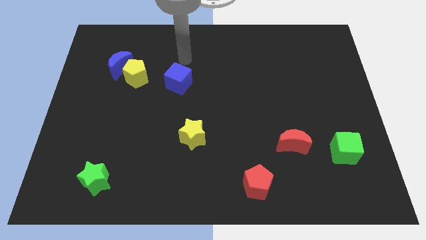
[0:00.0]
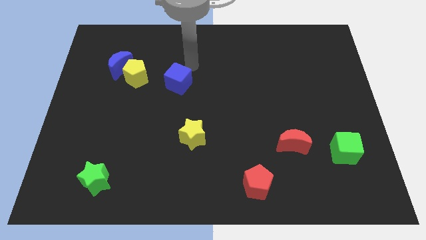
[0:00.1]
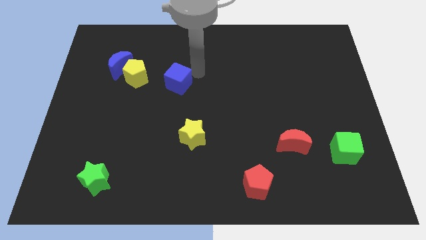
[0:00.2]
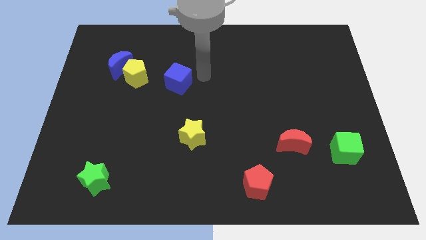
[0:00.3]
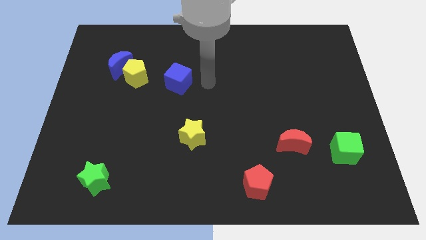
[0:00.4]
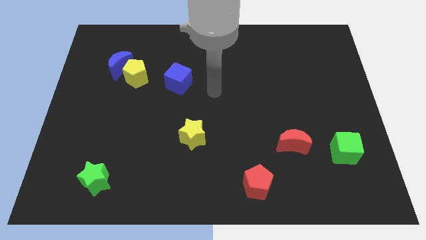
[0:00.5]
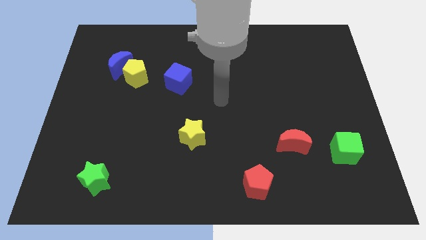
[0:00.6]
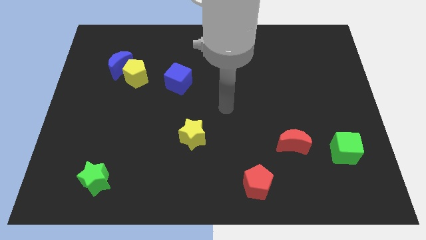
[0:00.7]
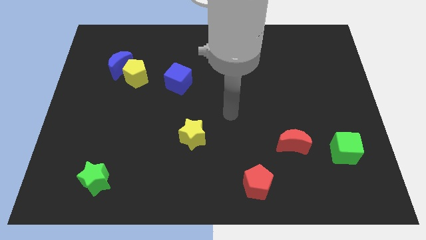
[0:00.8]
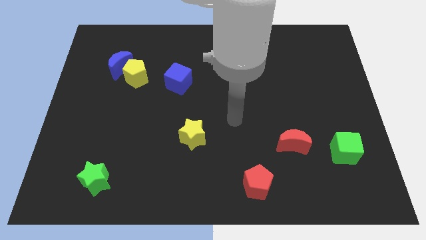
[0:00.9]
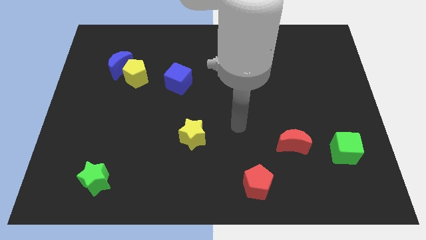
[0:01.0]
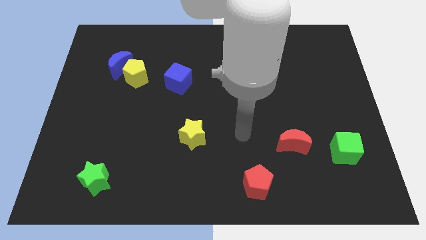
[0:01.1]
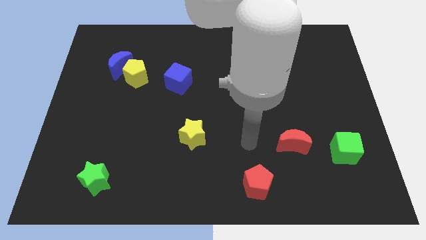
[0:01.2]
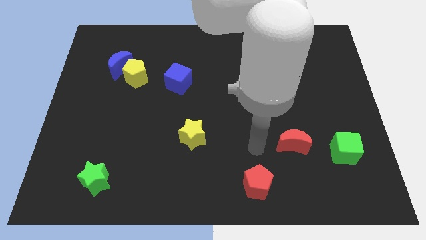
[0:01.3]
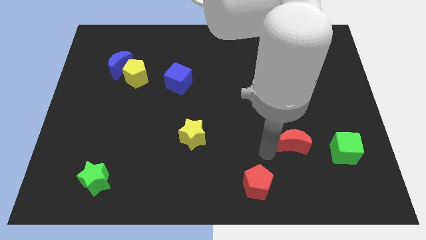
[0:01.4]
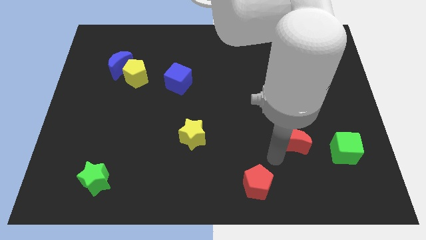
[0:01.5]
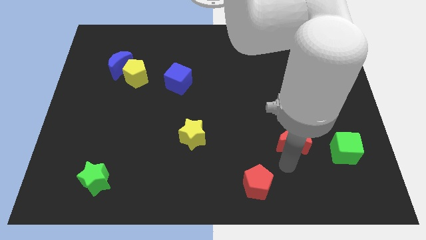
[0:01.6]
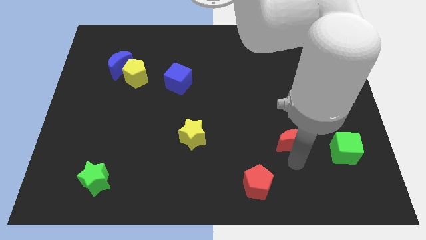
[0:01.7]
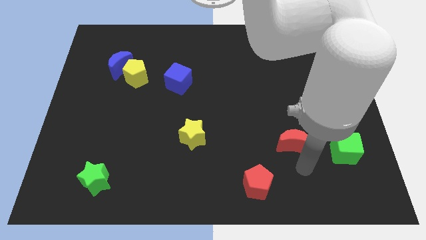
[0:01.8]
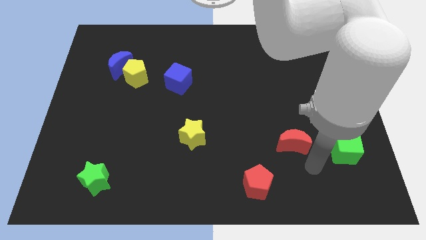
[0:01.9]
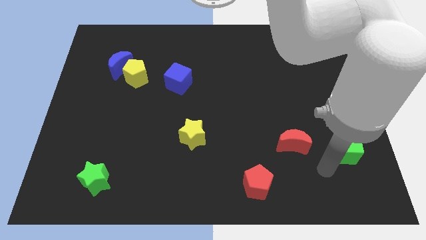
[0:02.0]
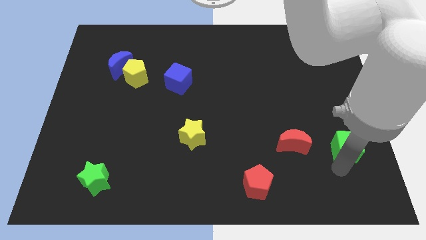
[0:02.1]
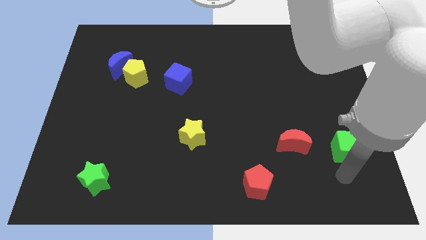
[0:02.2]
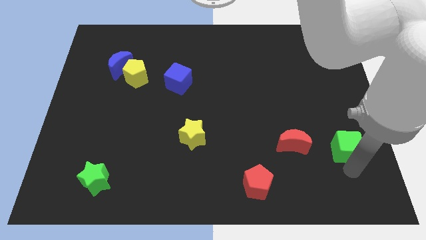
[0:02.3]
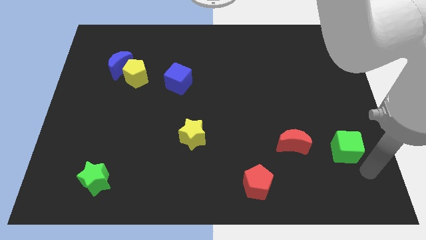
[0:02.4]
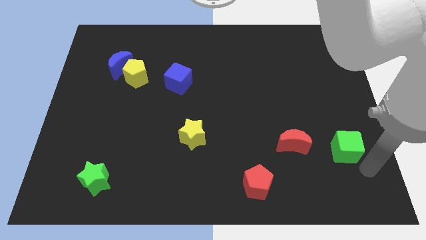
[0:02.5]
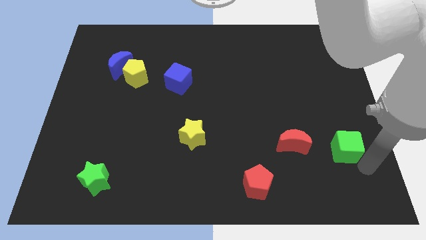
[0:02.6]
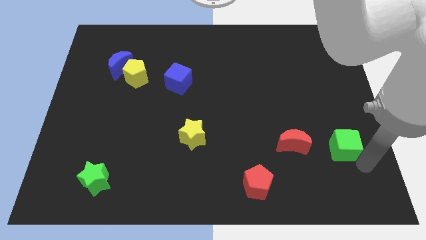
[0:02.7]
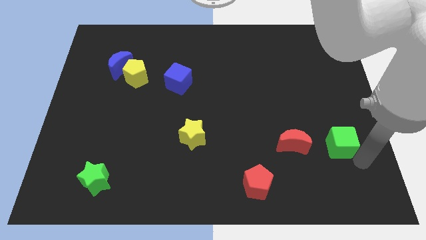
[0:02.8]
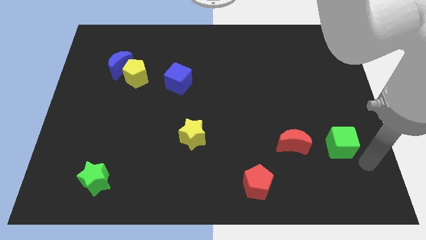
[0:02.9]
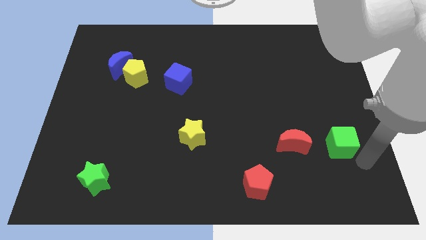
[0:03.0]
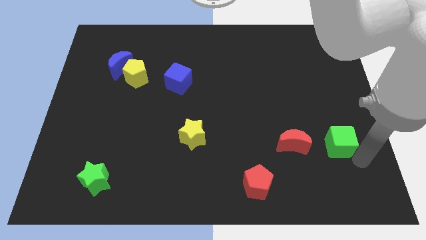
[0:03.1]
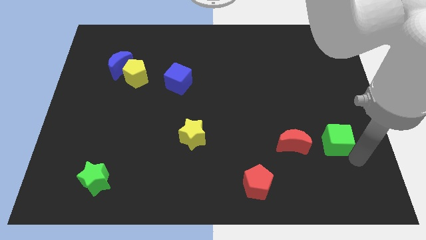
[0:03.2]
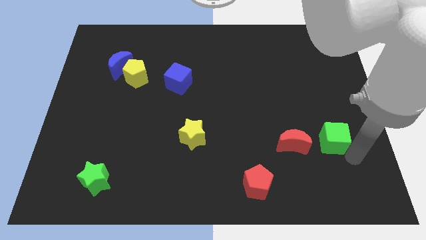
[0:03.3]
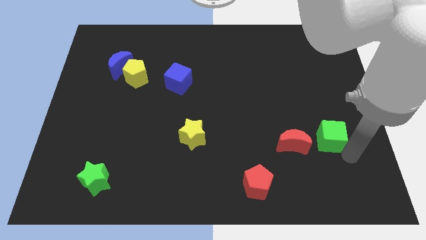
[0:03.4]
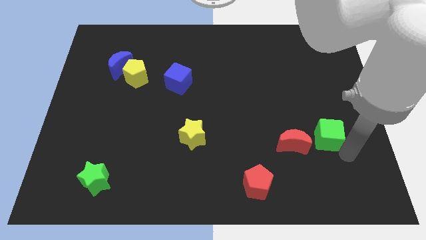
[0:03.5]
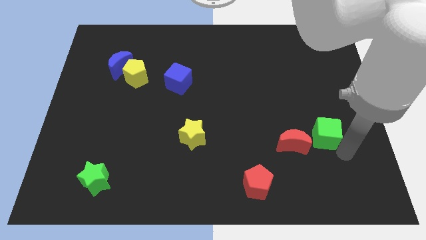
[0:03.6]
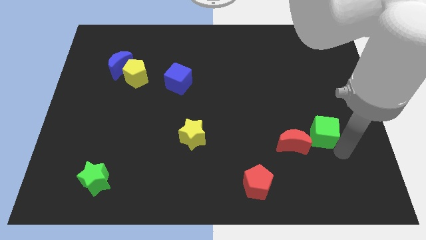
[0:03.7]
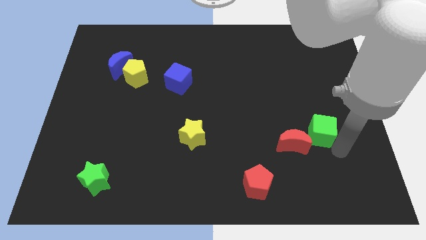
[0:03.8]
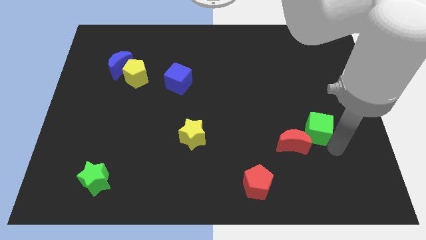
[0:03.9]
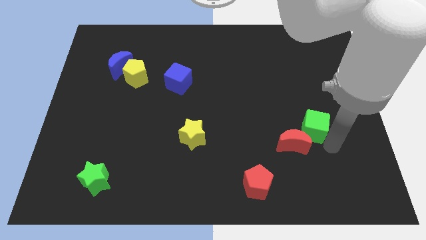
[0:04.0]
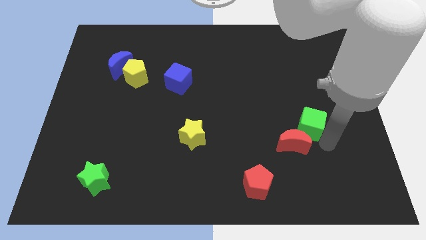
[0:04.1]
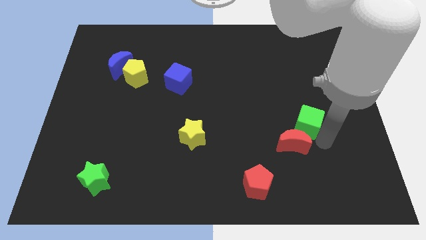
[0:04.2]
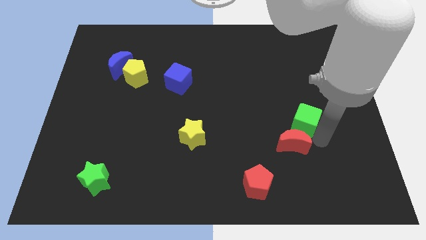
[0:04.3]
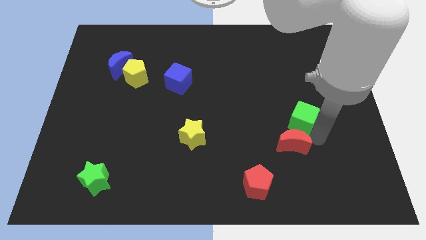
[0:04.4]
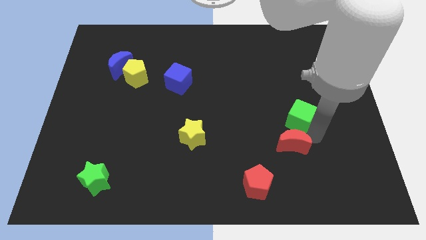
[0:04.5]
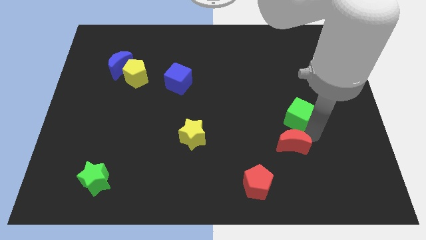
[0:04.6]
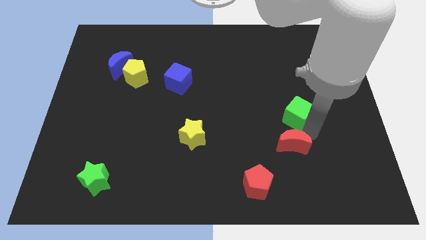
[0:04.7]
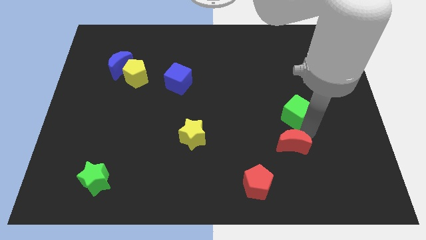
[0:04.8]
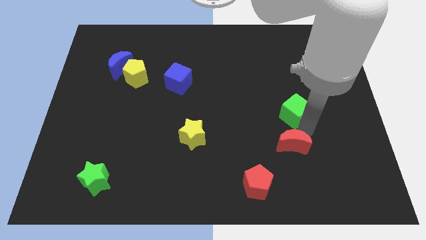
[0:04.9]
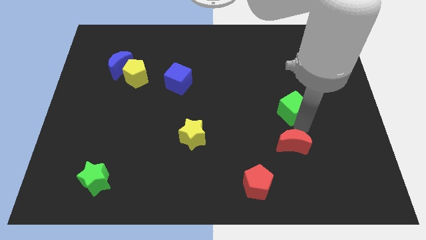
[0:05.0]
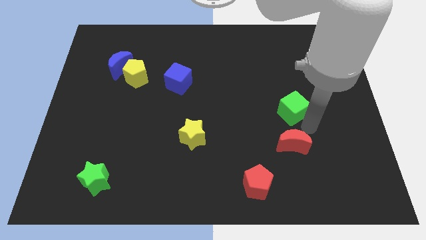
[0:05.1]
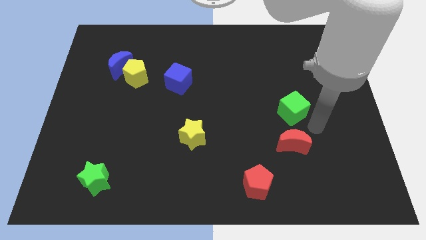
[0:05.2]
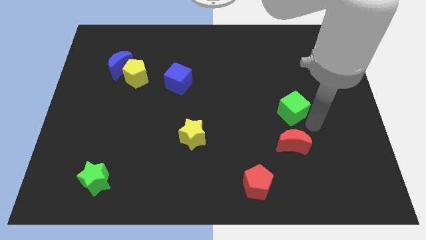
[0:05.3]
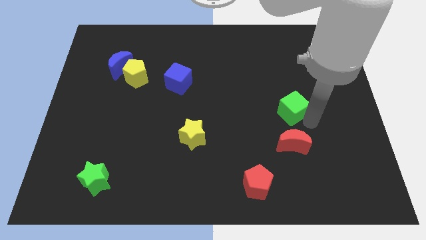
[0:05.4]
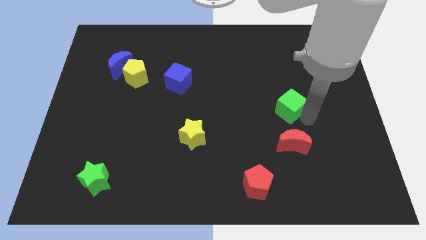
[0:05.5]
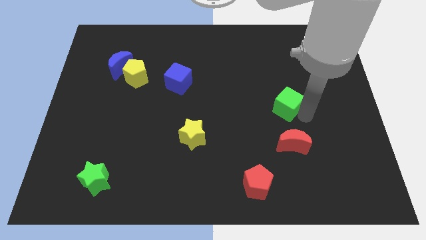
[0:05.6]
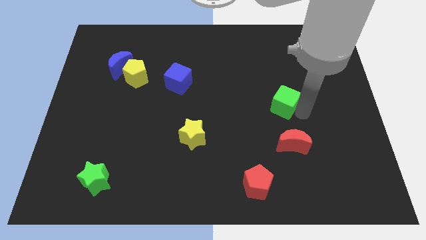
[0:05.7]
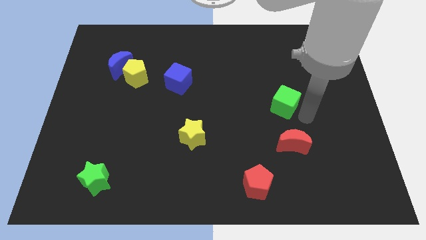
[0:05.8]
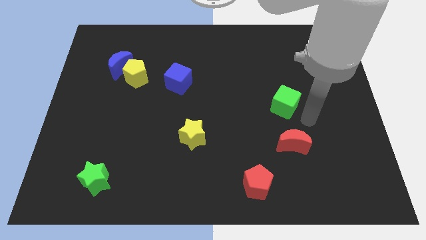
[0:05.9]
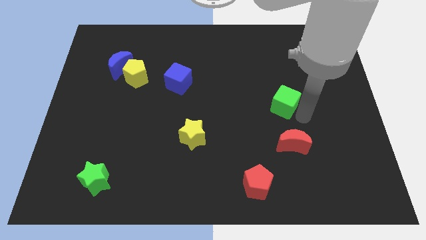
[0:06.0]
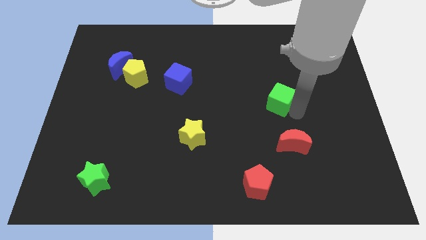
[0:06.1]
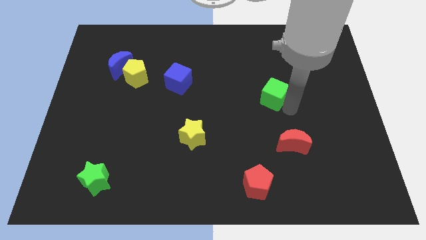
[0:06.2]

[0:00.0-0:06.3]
slide the green cube up and then left

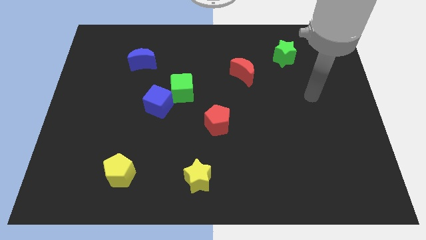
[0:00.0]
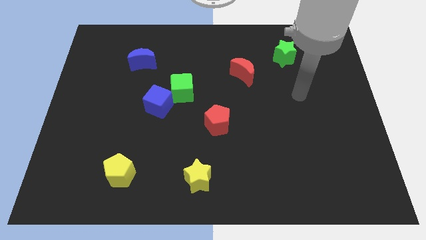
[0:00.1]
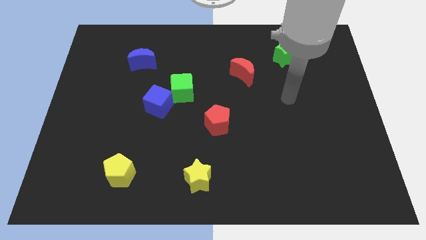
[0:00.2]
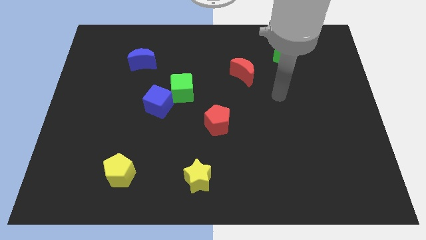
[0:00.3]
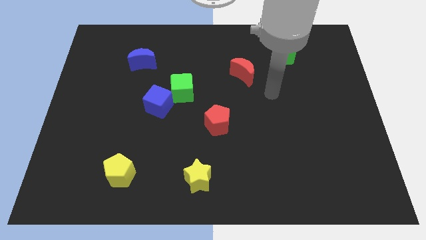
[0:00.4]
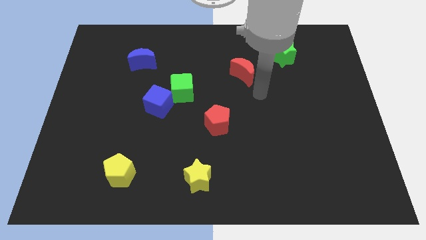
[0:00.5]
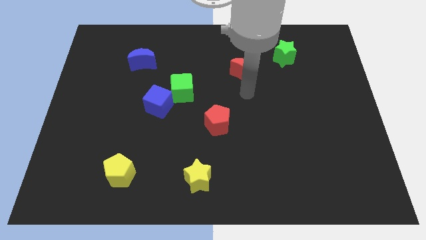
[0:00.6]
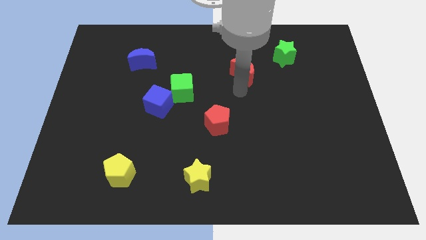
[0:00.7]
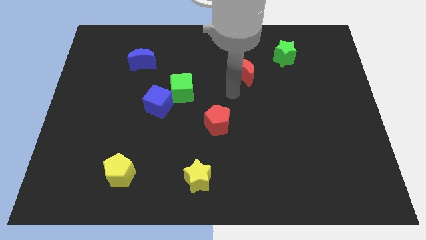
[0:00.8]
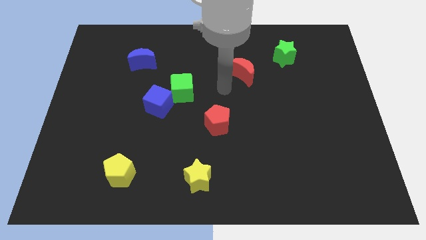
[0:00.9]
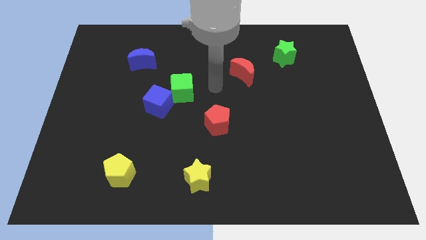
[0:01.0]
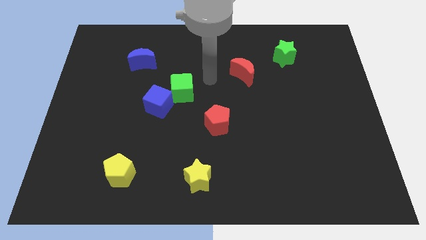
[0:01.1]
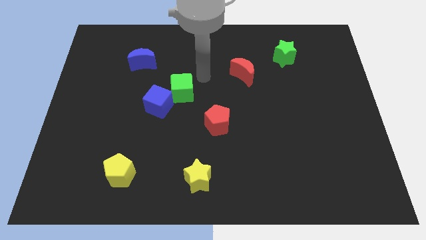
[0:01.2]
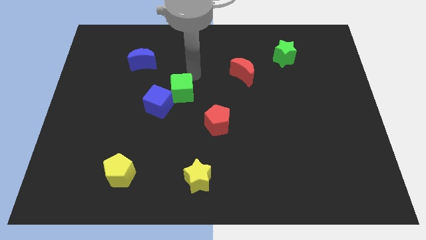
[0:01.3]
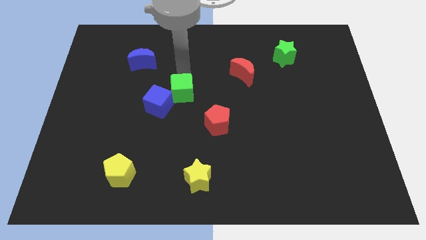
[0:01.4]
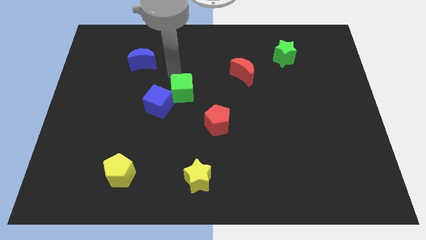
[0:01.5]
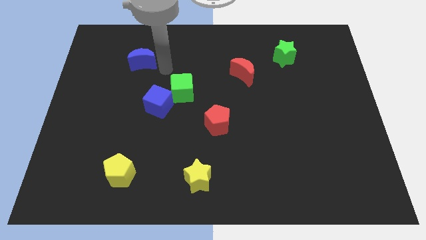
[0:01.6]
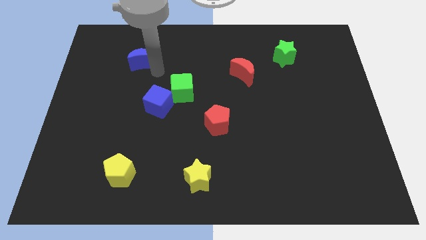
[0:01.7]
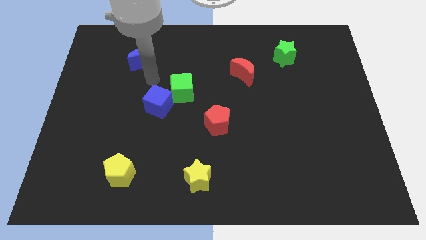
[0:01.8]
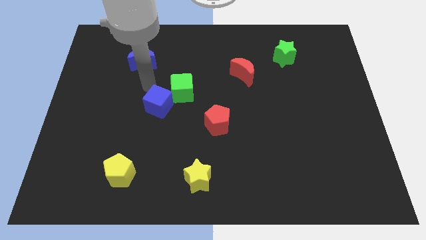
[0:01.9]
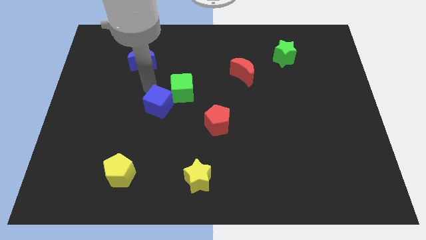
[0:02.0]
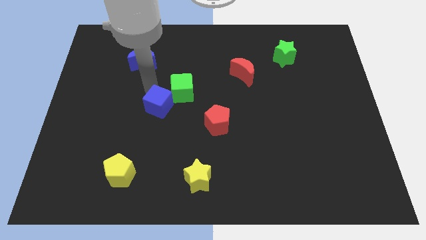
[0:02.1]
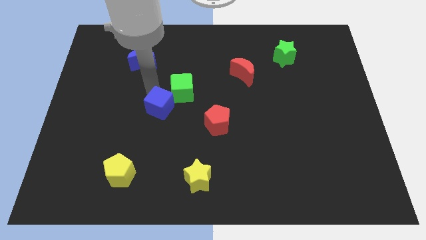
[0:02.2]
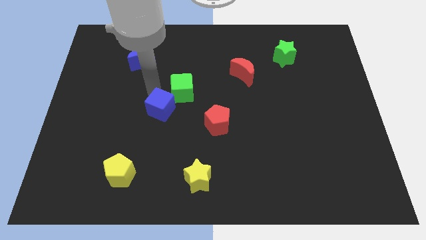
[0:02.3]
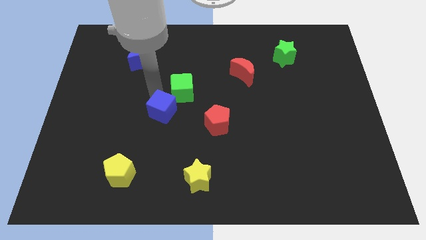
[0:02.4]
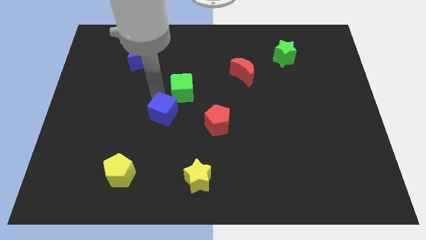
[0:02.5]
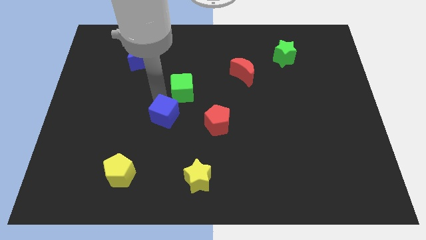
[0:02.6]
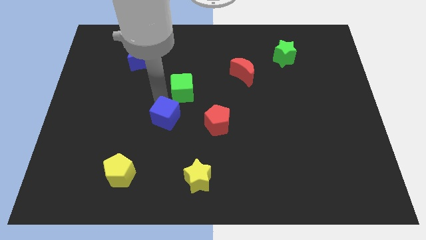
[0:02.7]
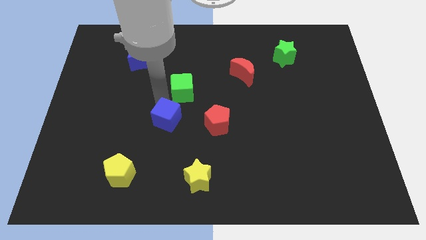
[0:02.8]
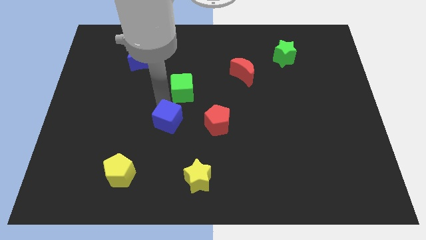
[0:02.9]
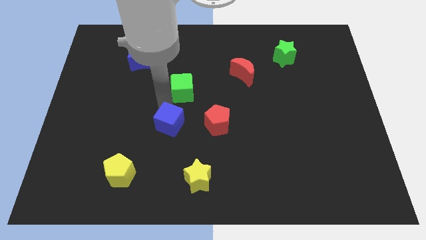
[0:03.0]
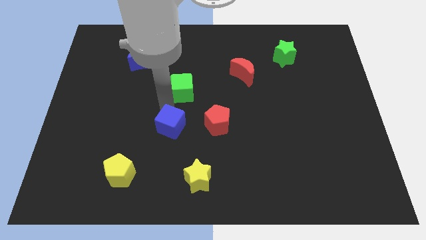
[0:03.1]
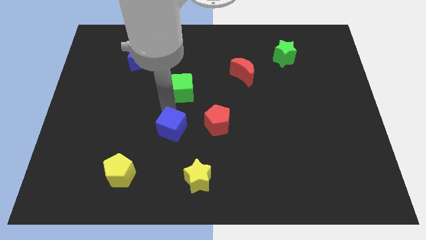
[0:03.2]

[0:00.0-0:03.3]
slightly move the blue cube downwards and then right
